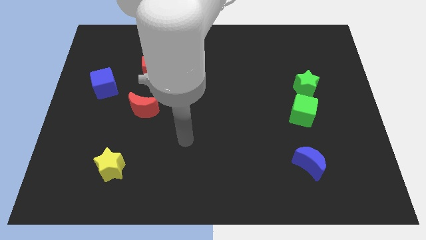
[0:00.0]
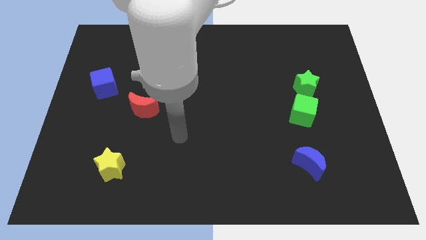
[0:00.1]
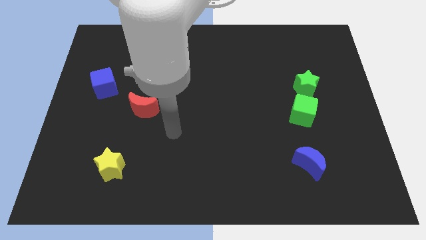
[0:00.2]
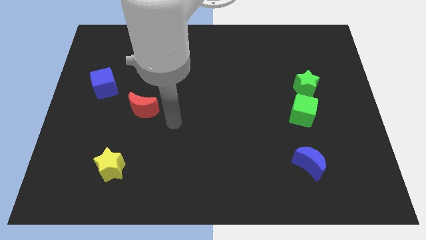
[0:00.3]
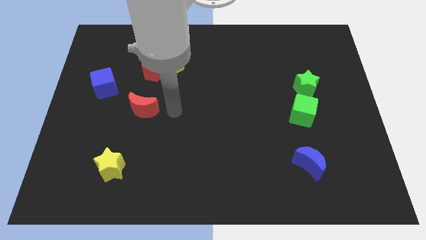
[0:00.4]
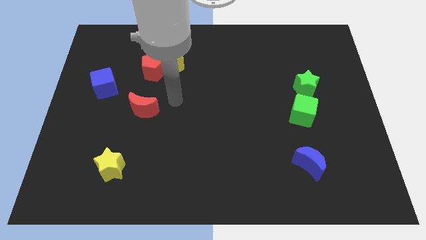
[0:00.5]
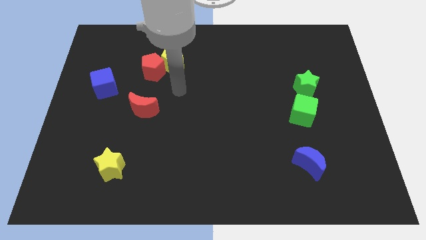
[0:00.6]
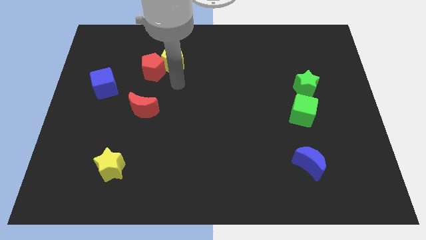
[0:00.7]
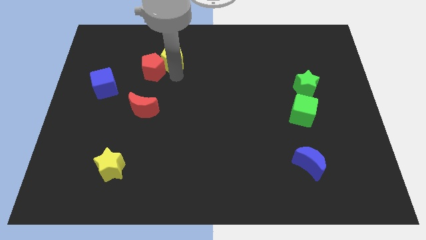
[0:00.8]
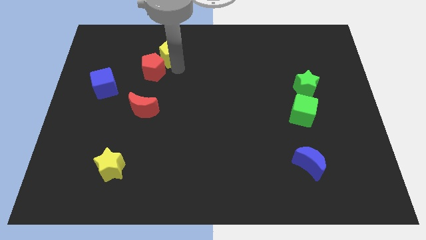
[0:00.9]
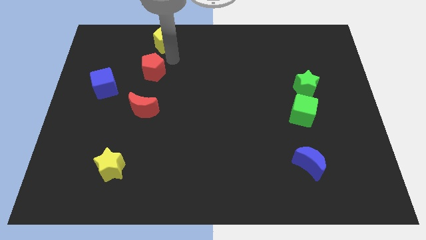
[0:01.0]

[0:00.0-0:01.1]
pull the red pentagon apart from the yellow pentagon

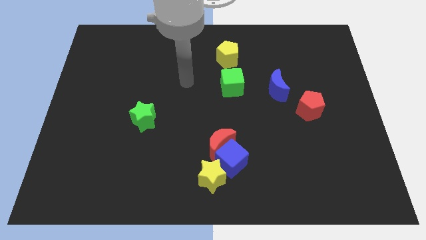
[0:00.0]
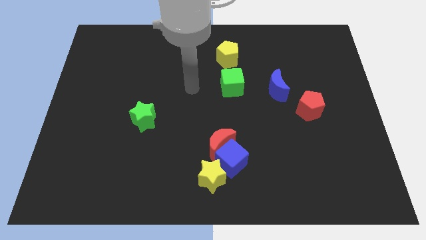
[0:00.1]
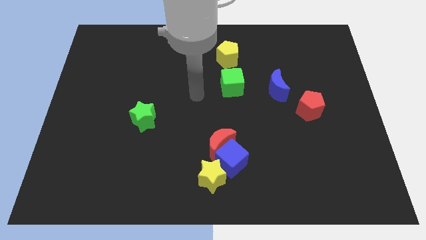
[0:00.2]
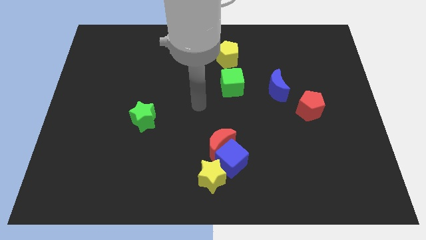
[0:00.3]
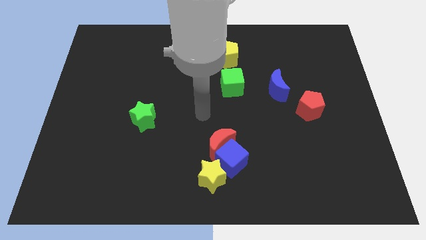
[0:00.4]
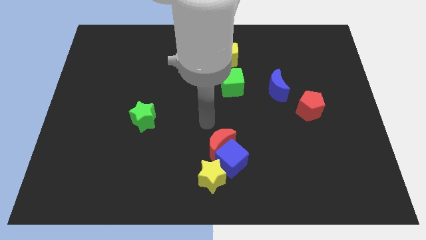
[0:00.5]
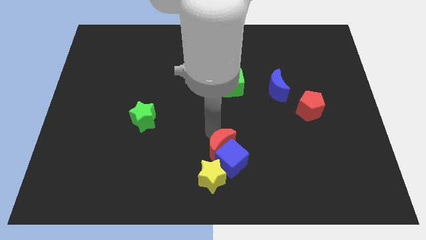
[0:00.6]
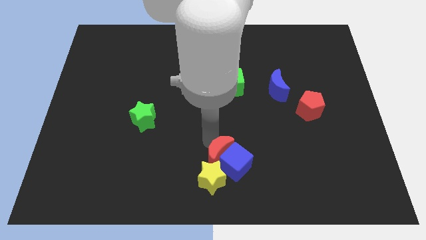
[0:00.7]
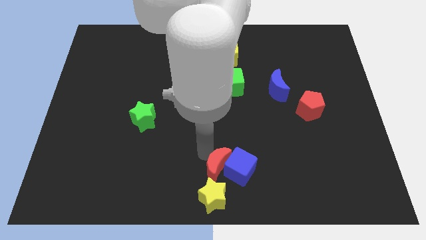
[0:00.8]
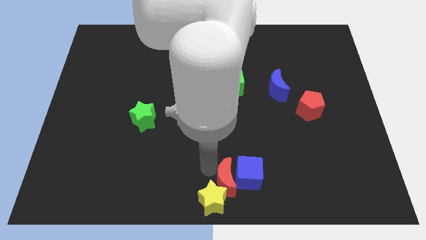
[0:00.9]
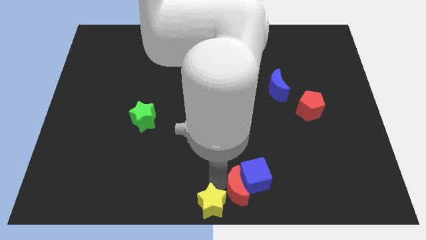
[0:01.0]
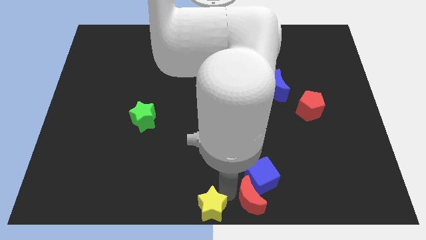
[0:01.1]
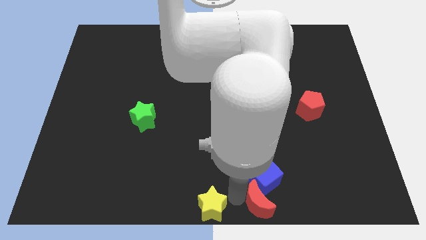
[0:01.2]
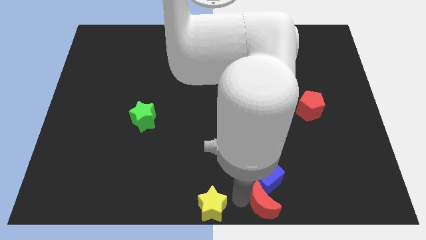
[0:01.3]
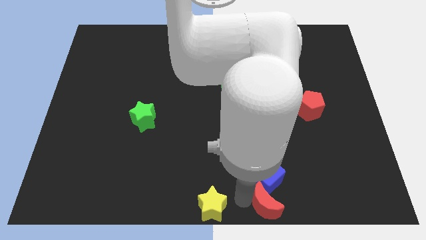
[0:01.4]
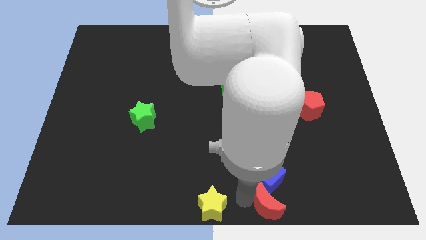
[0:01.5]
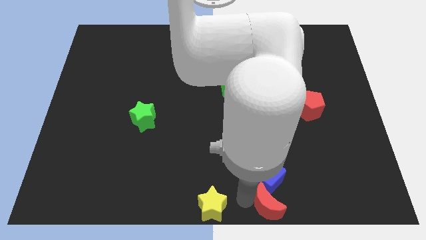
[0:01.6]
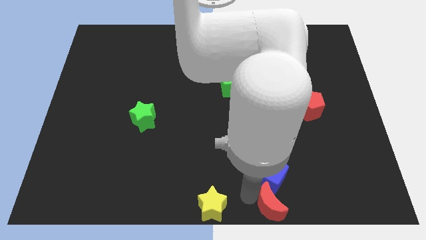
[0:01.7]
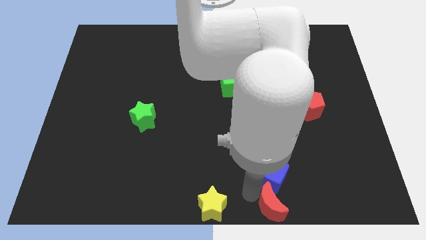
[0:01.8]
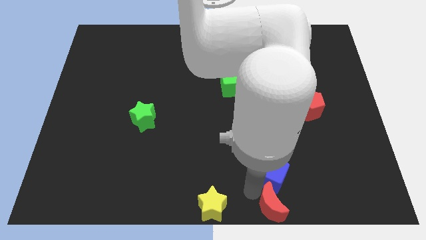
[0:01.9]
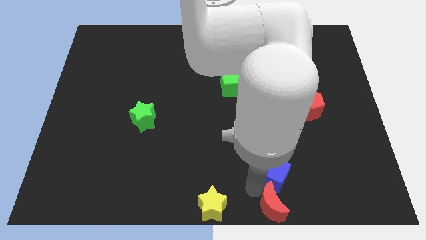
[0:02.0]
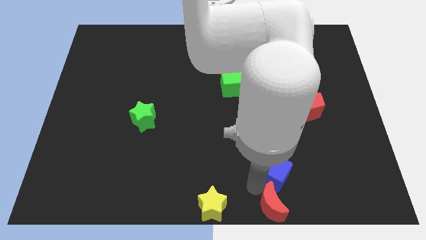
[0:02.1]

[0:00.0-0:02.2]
pull the blue cube apart from the red moon and yellow star

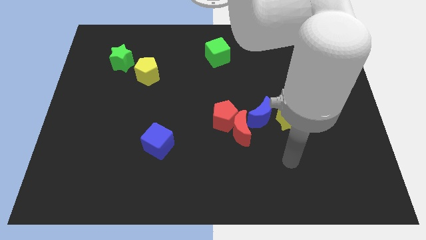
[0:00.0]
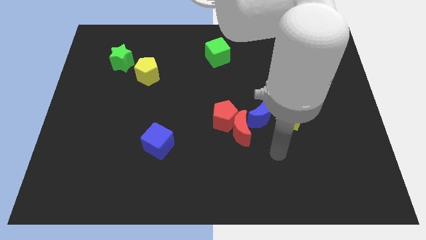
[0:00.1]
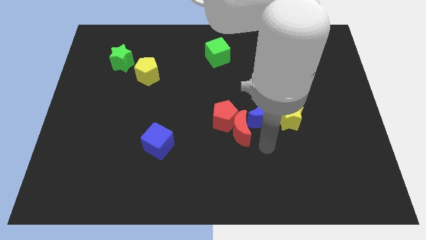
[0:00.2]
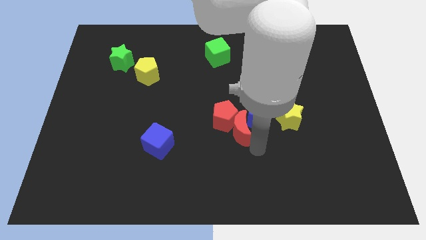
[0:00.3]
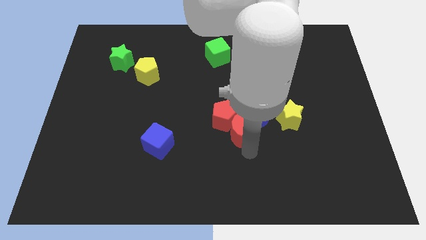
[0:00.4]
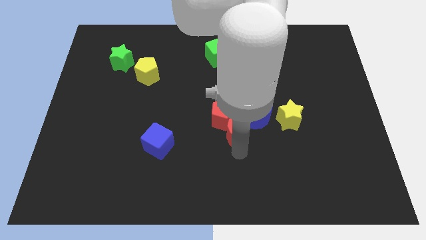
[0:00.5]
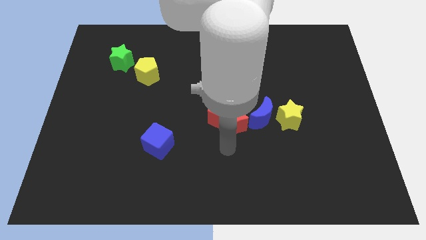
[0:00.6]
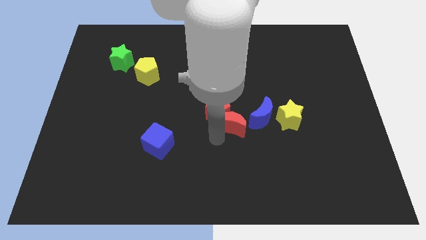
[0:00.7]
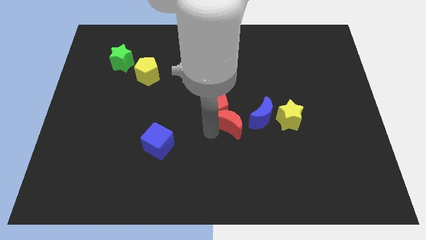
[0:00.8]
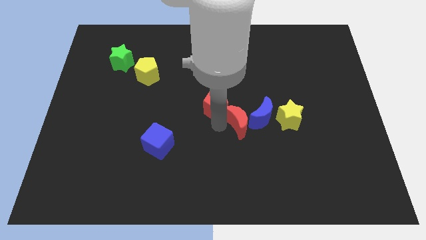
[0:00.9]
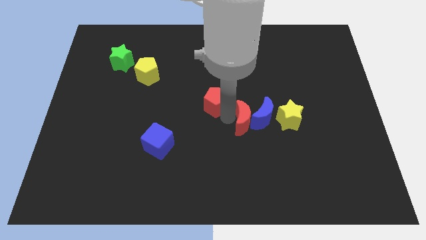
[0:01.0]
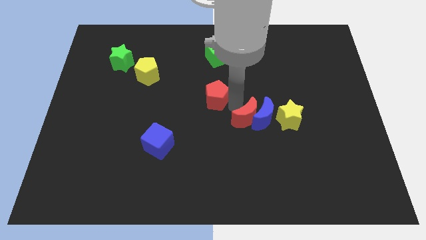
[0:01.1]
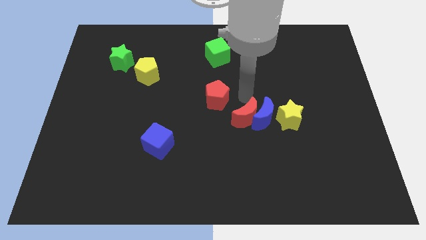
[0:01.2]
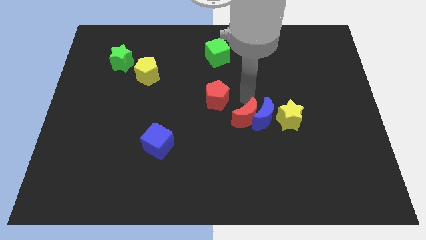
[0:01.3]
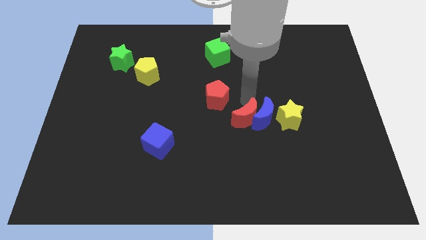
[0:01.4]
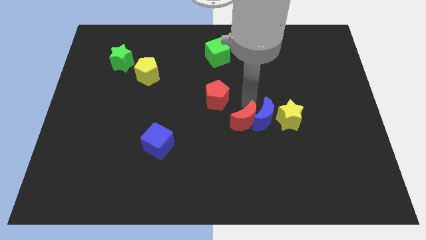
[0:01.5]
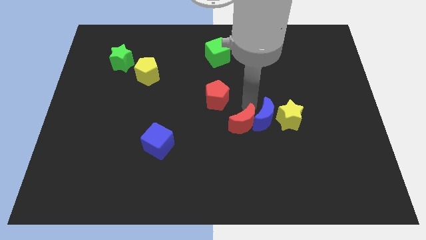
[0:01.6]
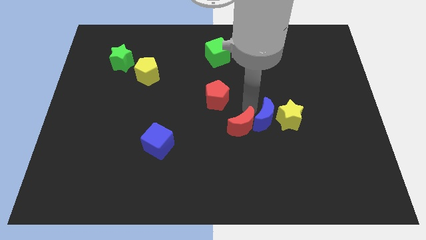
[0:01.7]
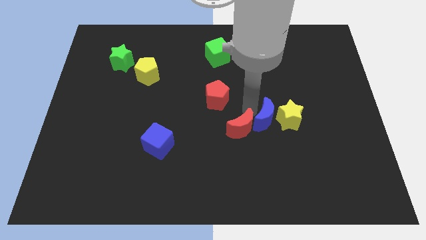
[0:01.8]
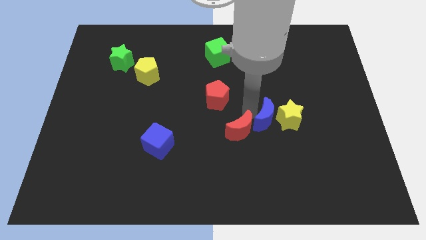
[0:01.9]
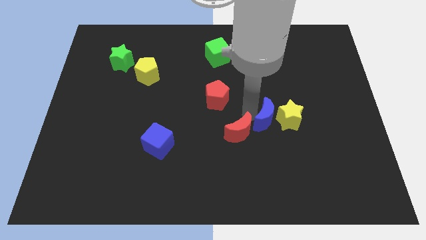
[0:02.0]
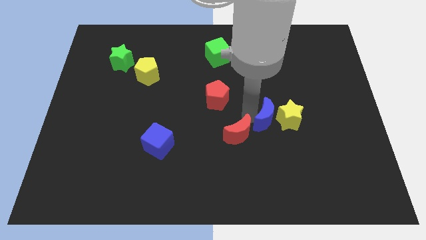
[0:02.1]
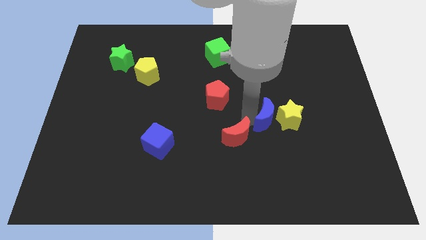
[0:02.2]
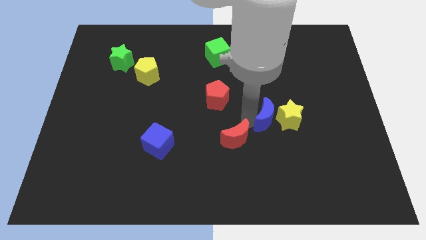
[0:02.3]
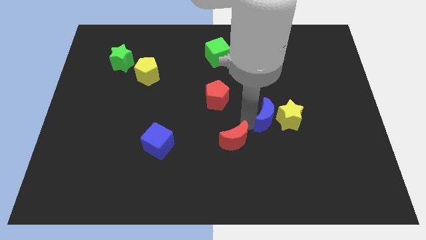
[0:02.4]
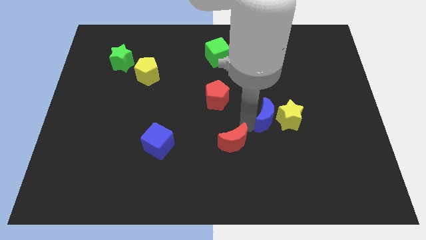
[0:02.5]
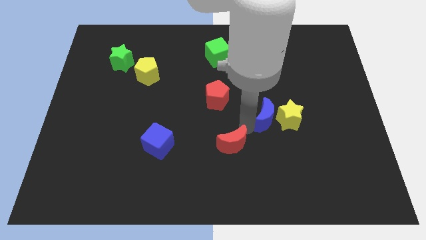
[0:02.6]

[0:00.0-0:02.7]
move the red moon away from the red pentagon and blue moon

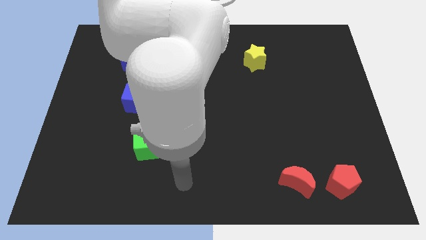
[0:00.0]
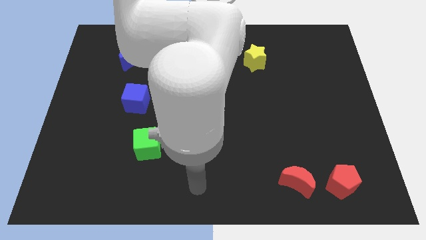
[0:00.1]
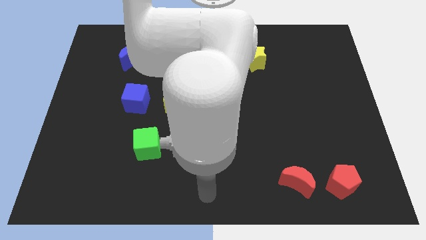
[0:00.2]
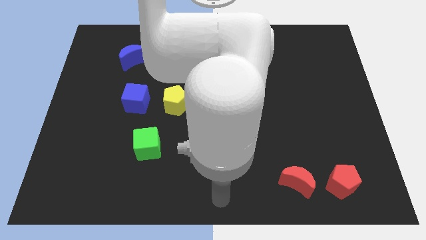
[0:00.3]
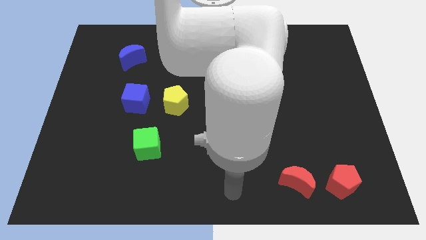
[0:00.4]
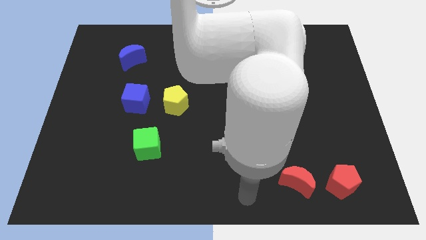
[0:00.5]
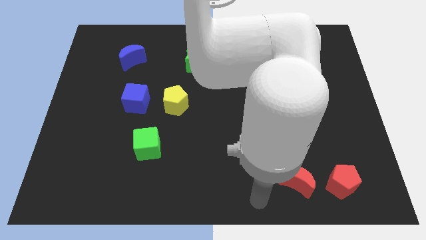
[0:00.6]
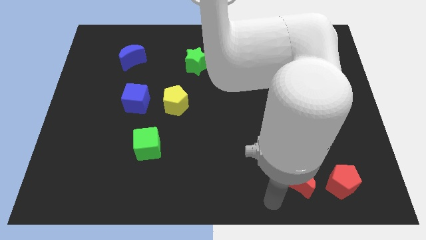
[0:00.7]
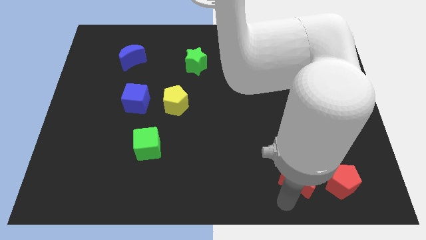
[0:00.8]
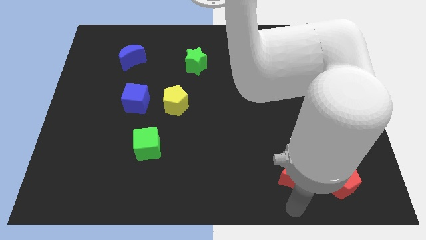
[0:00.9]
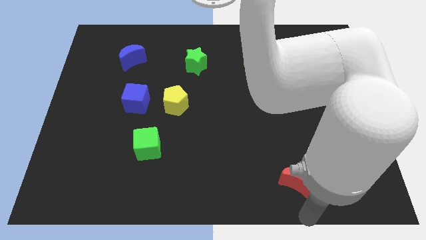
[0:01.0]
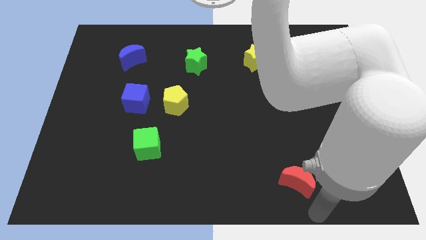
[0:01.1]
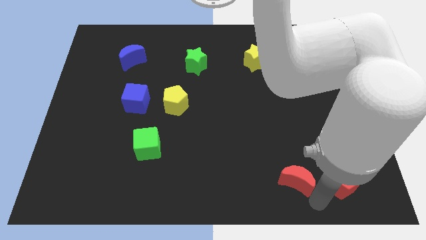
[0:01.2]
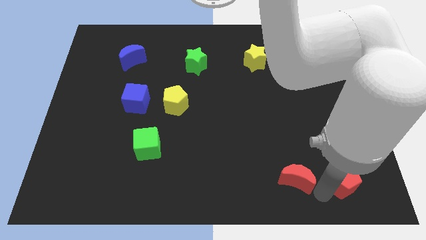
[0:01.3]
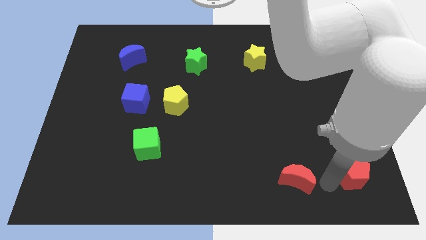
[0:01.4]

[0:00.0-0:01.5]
move the red moon away from the red pentagon

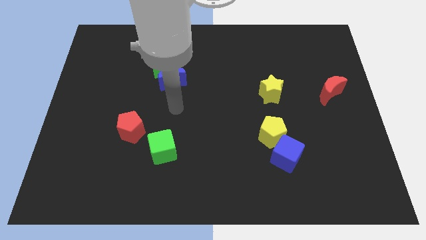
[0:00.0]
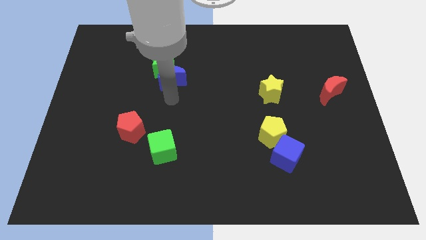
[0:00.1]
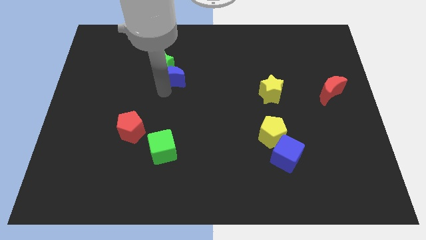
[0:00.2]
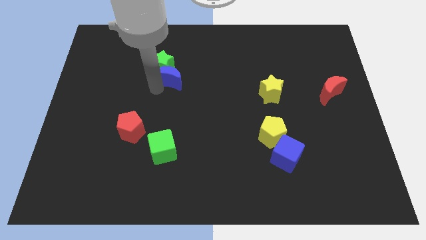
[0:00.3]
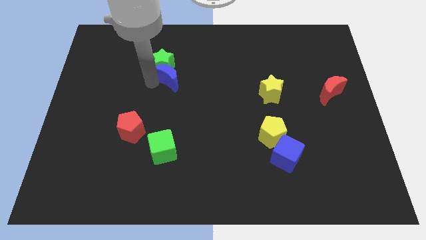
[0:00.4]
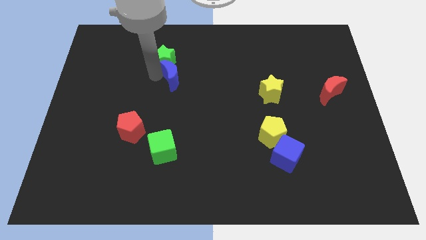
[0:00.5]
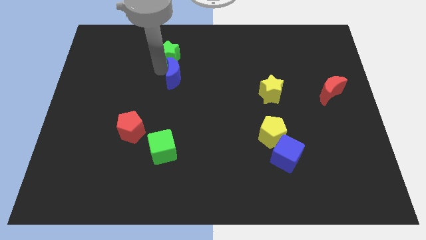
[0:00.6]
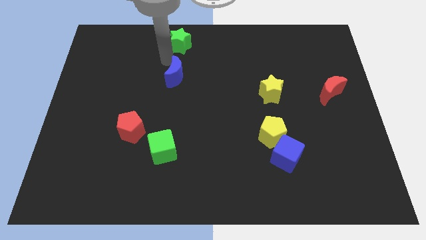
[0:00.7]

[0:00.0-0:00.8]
pull the blue moon apart from the green star

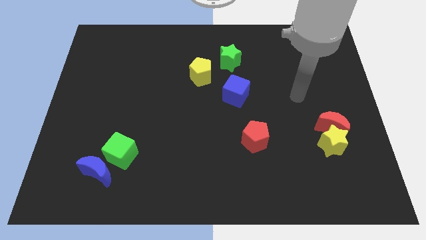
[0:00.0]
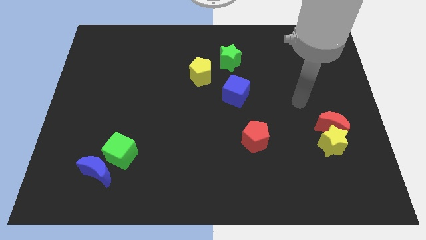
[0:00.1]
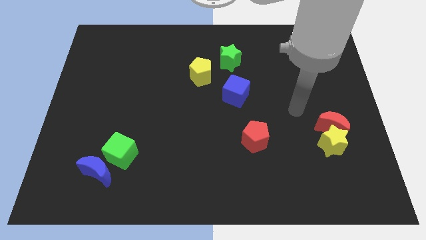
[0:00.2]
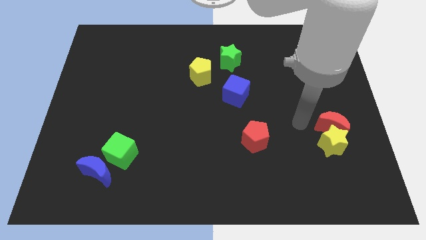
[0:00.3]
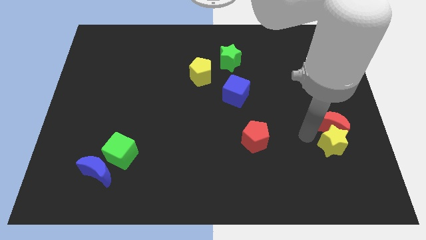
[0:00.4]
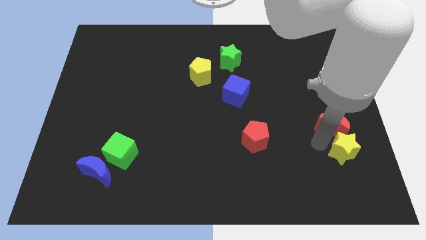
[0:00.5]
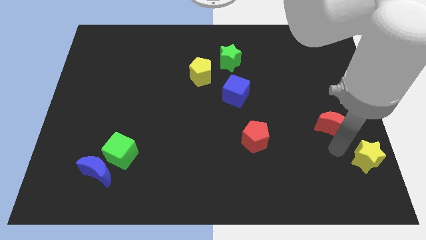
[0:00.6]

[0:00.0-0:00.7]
separate the red moon from the yellow star

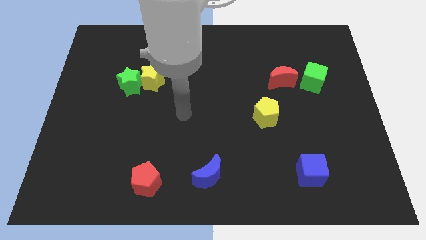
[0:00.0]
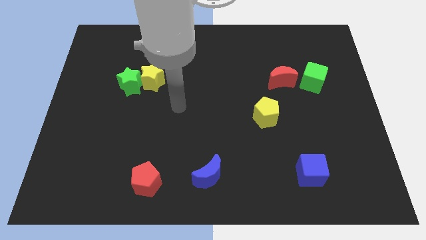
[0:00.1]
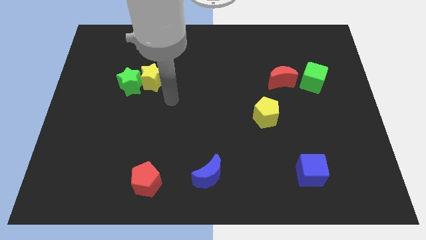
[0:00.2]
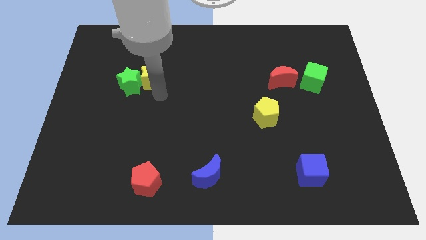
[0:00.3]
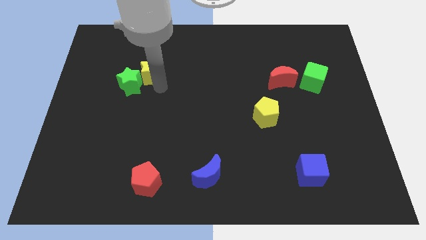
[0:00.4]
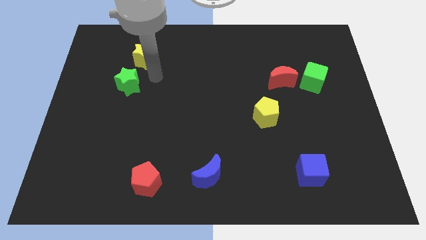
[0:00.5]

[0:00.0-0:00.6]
separate the green star from the yellow star
